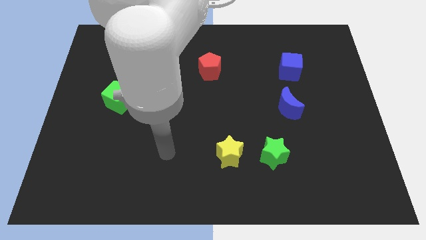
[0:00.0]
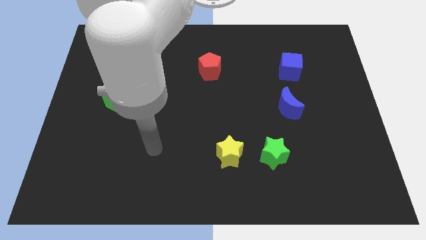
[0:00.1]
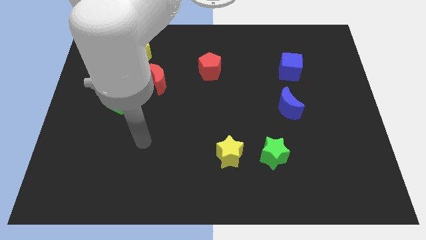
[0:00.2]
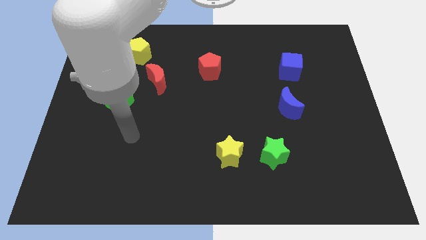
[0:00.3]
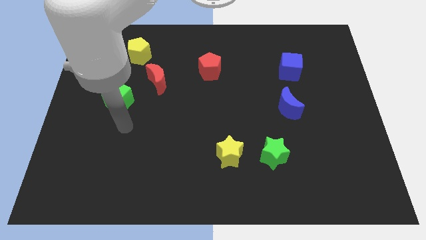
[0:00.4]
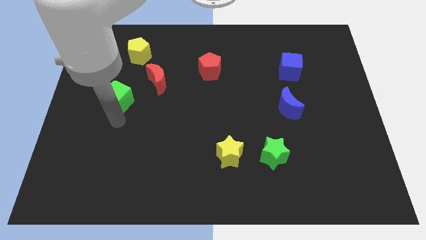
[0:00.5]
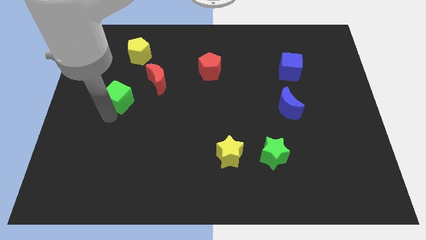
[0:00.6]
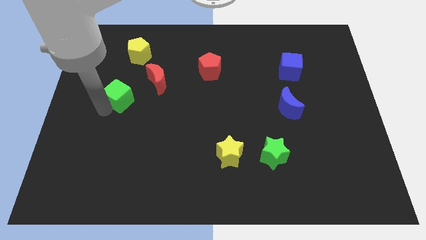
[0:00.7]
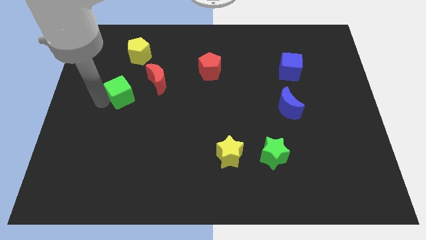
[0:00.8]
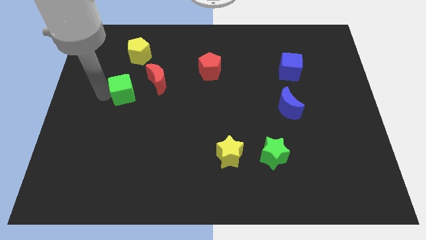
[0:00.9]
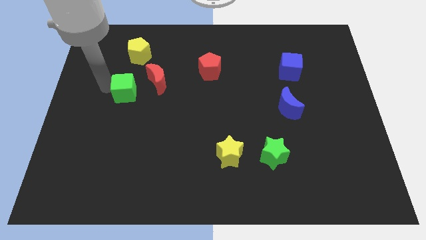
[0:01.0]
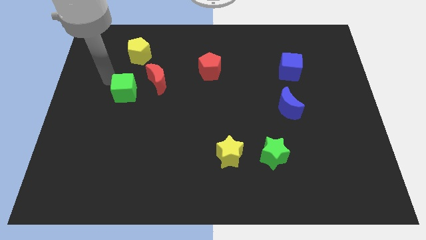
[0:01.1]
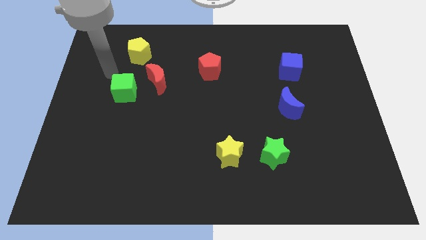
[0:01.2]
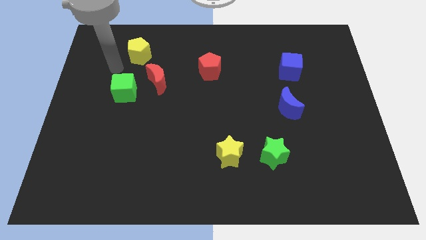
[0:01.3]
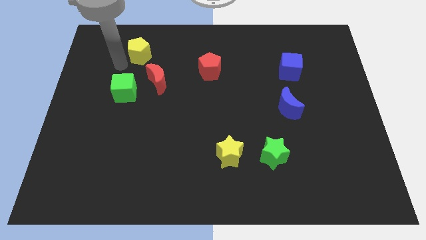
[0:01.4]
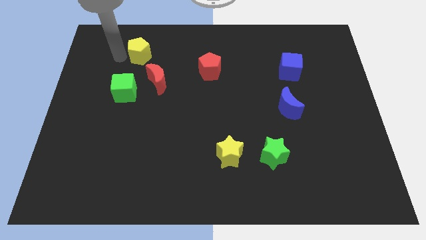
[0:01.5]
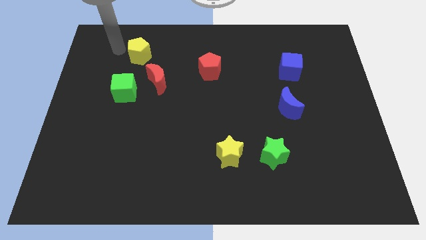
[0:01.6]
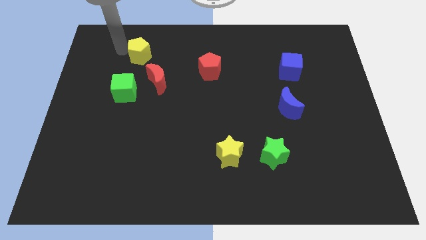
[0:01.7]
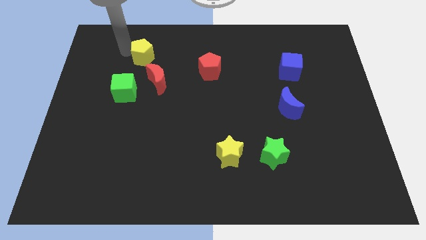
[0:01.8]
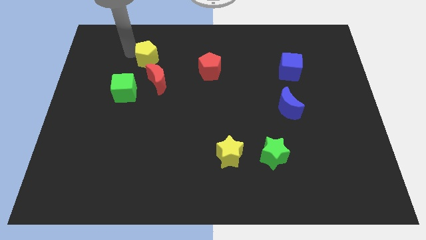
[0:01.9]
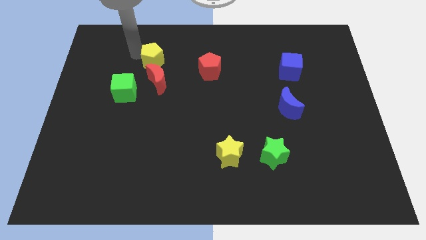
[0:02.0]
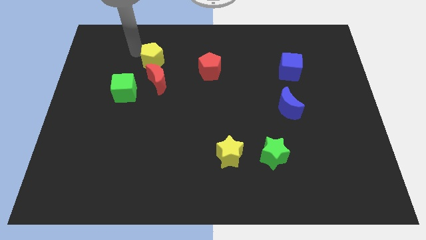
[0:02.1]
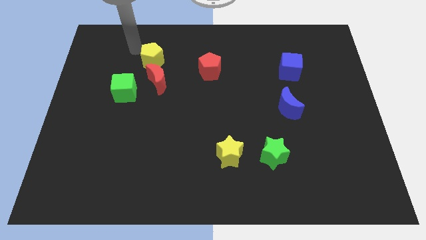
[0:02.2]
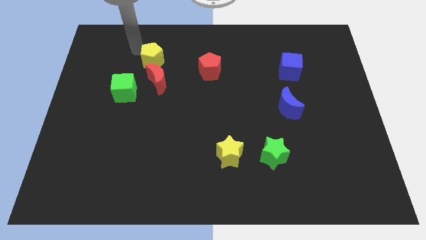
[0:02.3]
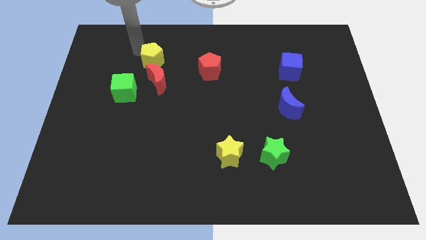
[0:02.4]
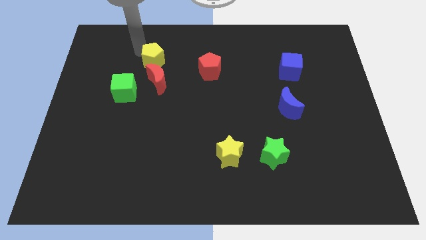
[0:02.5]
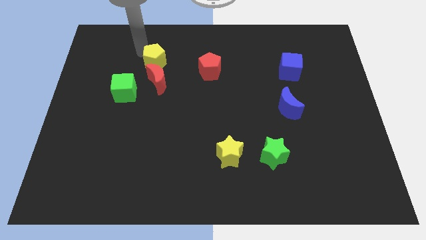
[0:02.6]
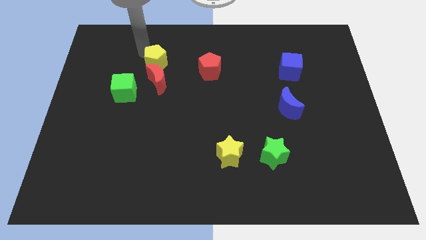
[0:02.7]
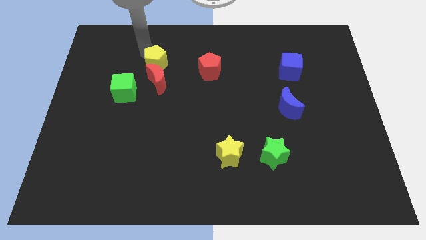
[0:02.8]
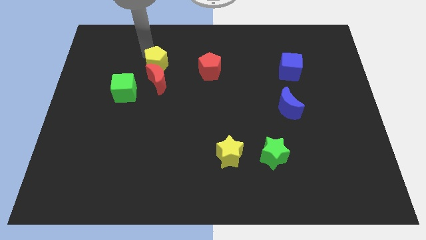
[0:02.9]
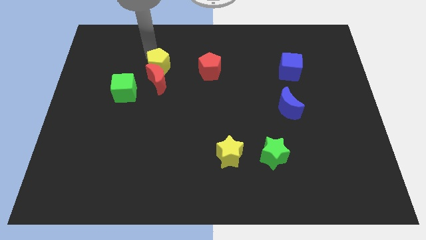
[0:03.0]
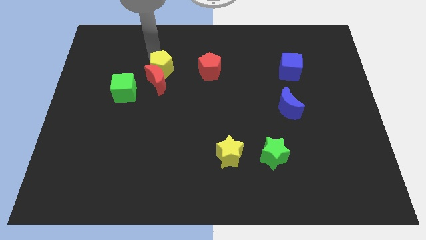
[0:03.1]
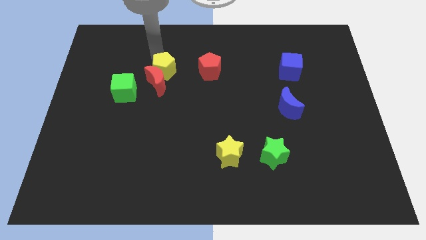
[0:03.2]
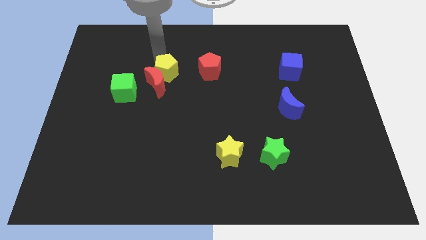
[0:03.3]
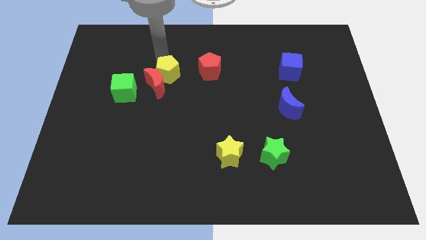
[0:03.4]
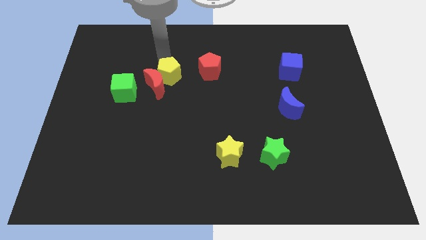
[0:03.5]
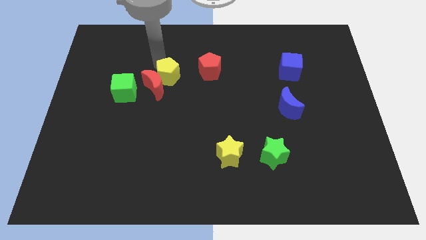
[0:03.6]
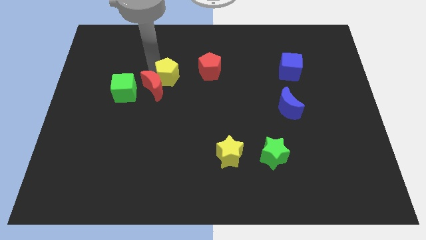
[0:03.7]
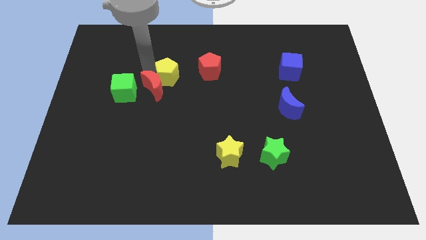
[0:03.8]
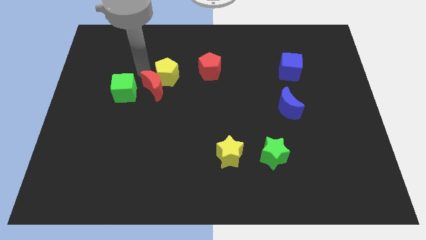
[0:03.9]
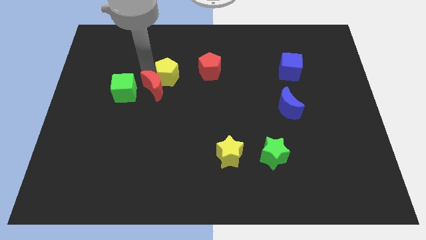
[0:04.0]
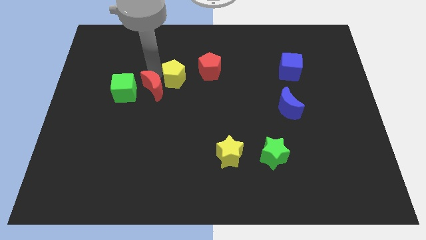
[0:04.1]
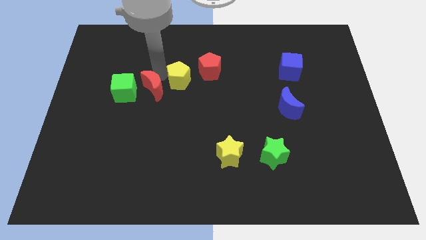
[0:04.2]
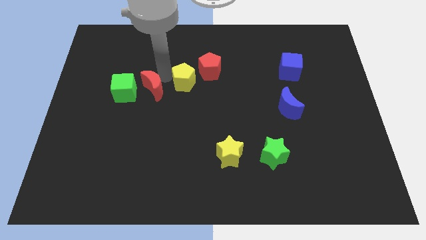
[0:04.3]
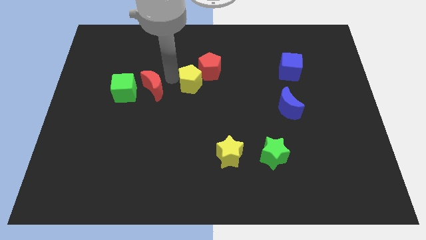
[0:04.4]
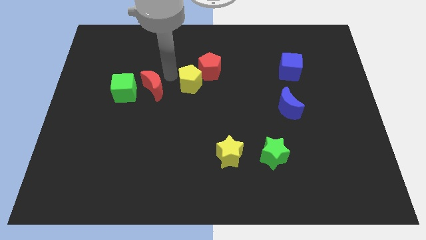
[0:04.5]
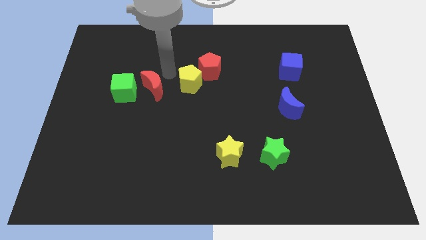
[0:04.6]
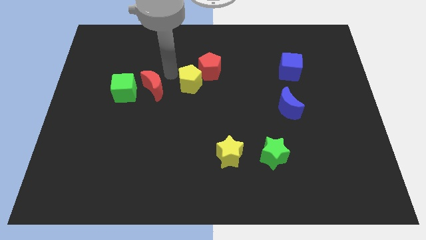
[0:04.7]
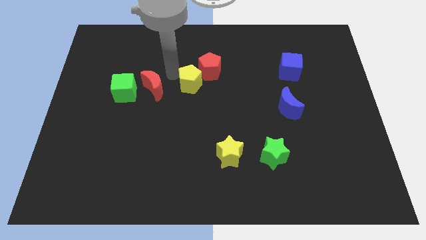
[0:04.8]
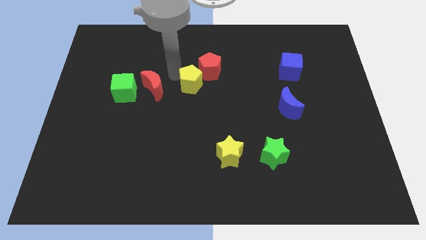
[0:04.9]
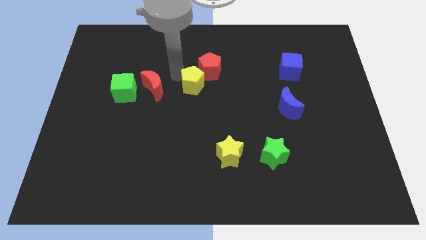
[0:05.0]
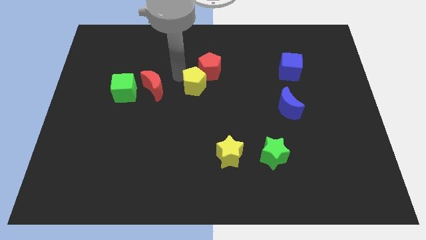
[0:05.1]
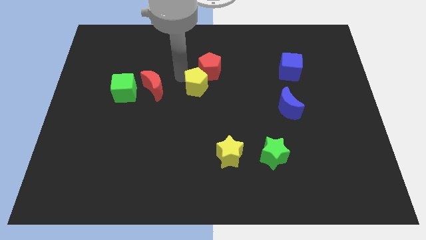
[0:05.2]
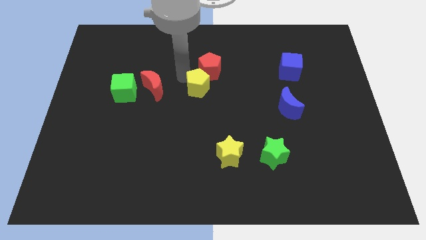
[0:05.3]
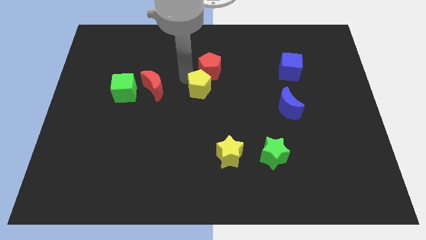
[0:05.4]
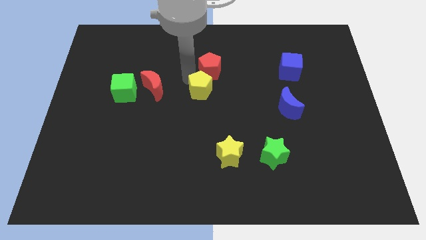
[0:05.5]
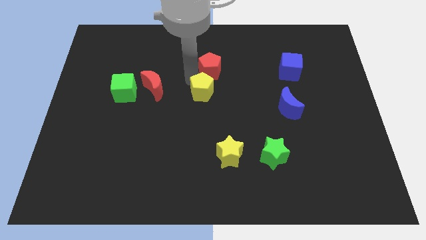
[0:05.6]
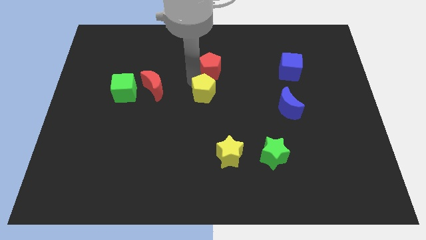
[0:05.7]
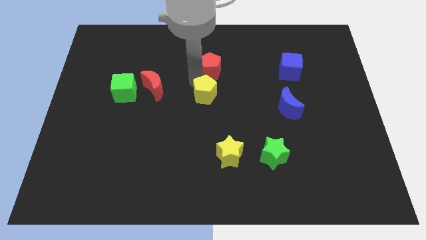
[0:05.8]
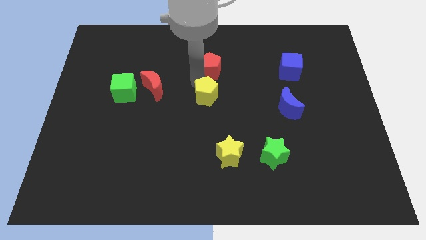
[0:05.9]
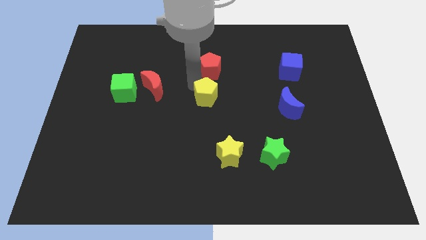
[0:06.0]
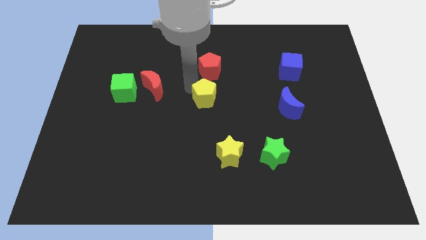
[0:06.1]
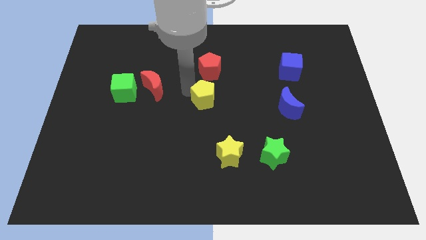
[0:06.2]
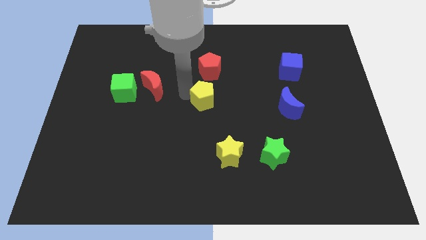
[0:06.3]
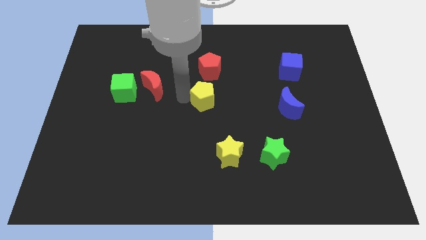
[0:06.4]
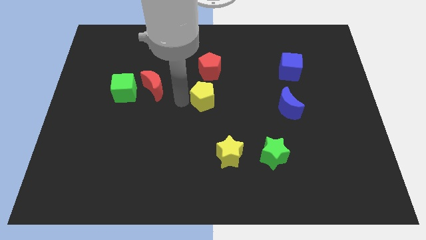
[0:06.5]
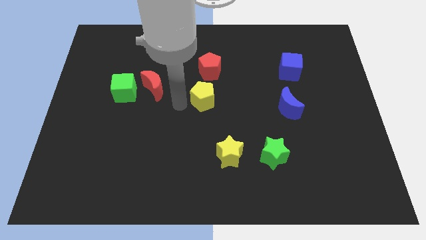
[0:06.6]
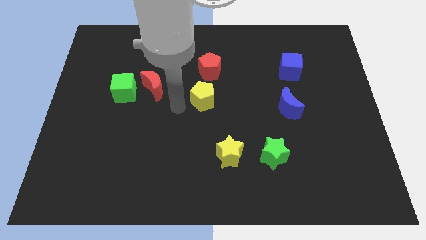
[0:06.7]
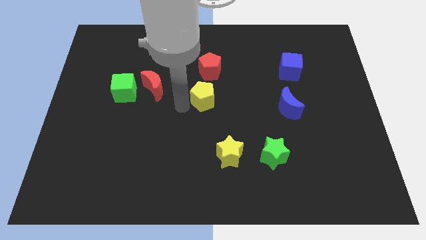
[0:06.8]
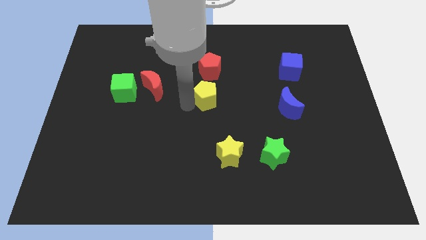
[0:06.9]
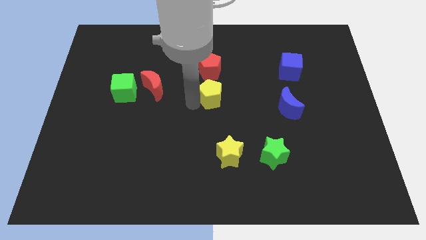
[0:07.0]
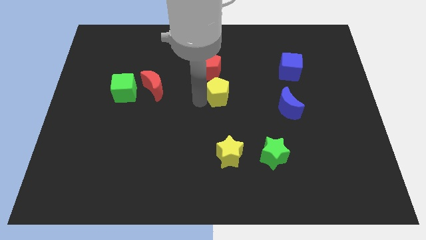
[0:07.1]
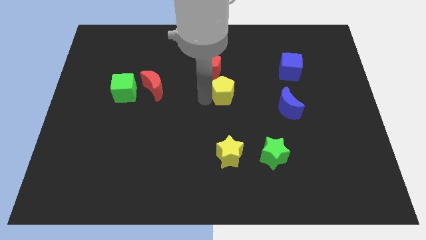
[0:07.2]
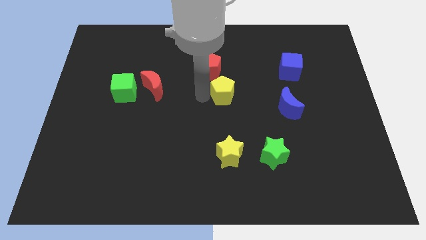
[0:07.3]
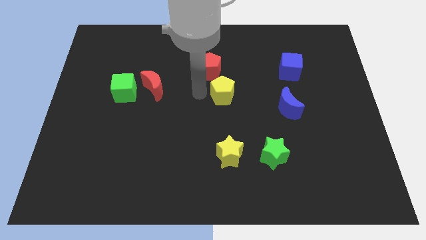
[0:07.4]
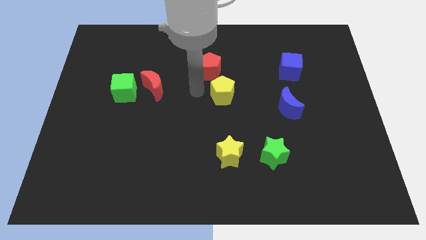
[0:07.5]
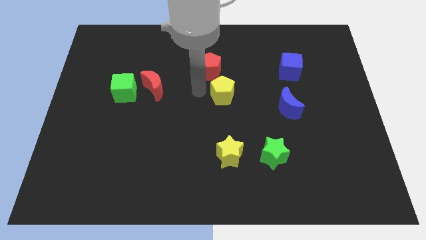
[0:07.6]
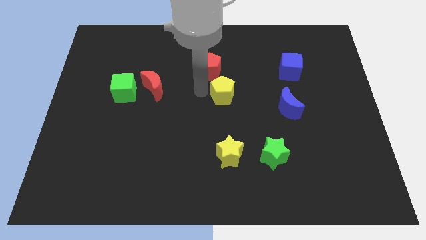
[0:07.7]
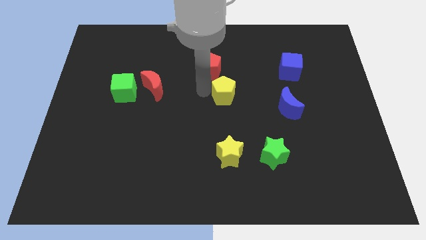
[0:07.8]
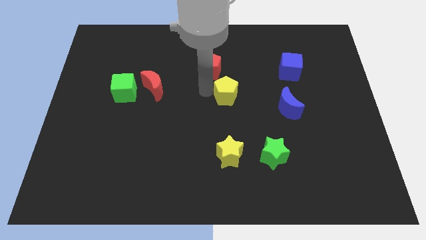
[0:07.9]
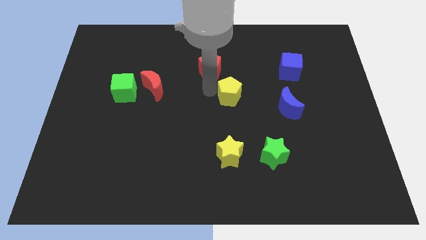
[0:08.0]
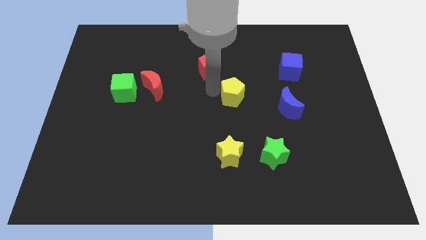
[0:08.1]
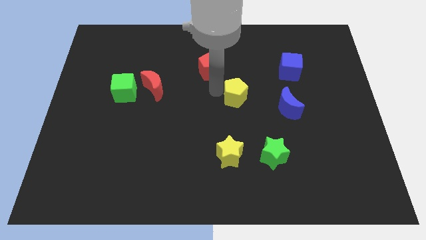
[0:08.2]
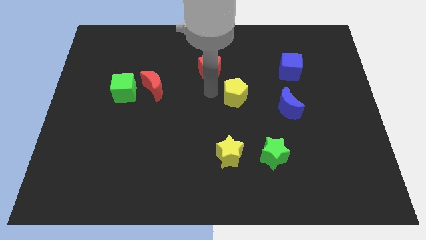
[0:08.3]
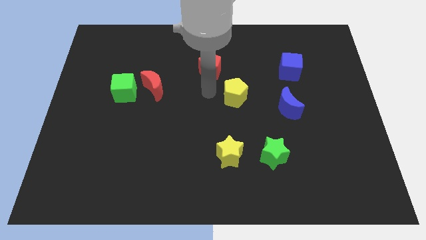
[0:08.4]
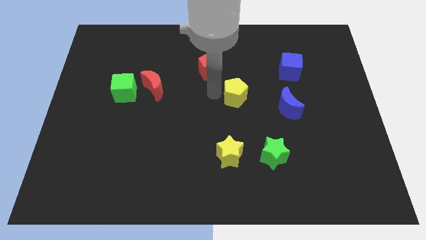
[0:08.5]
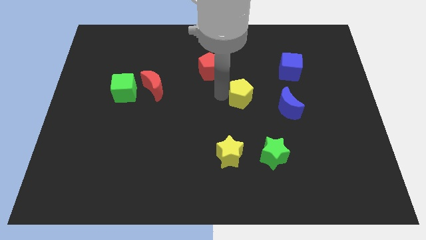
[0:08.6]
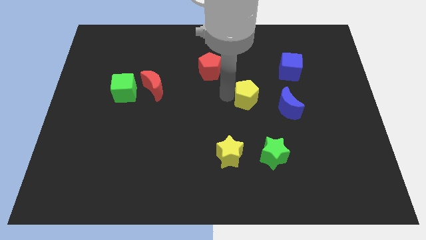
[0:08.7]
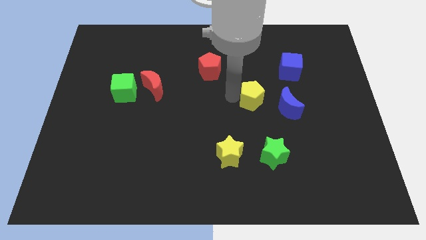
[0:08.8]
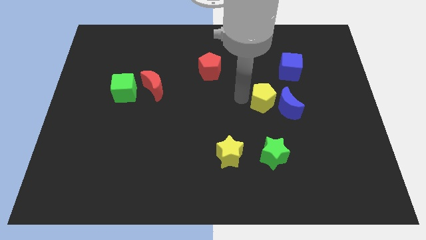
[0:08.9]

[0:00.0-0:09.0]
move the yellow pentagon towards the blue moon
